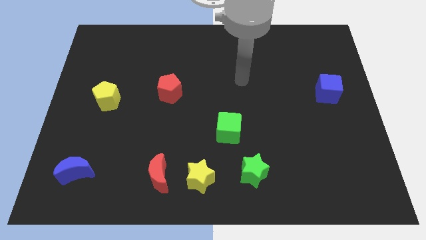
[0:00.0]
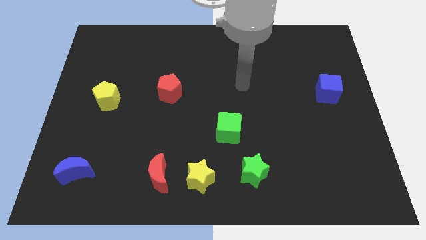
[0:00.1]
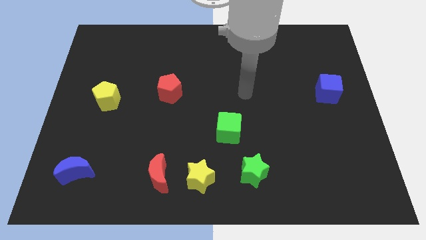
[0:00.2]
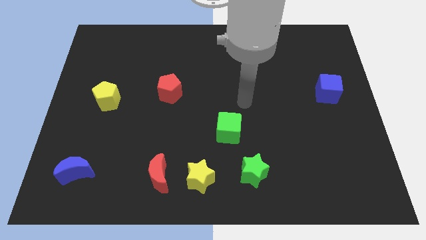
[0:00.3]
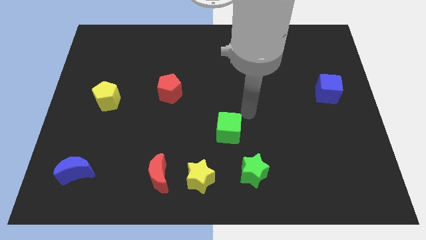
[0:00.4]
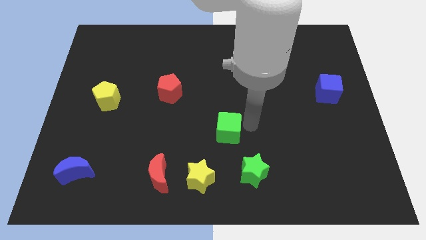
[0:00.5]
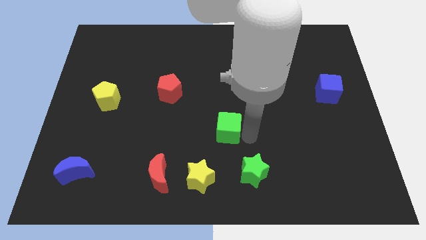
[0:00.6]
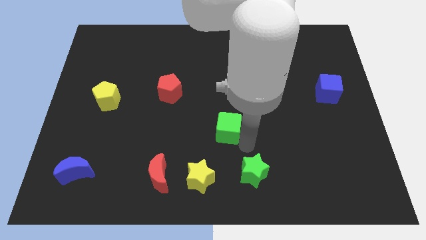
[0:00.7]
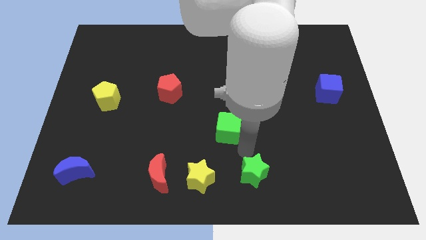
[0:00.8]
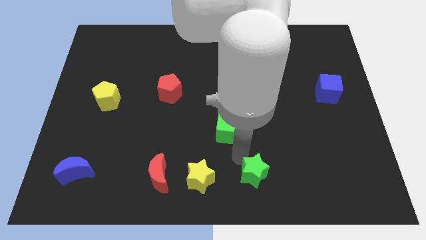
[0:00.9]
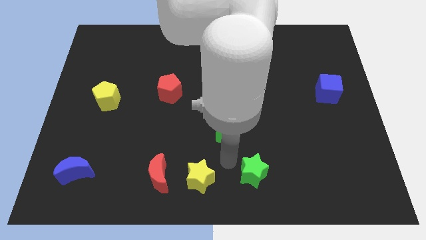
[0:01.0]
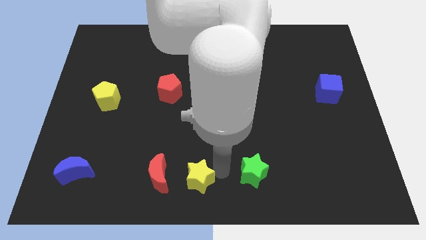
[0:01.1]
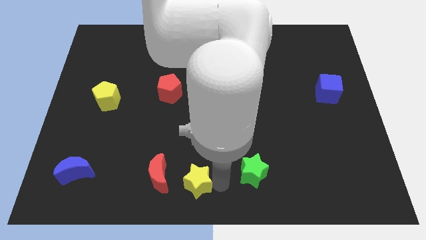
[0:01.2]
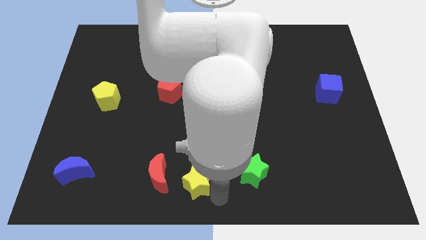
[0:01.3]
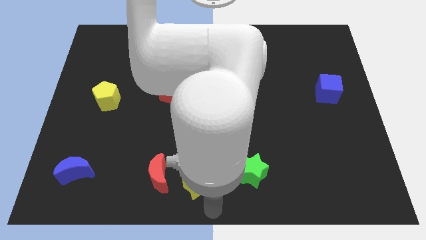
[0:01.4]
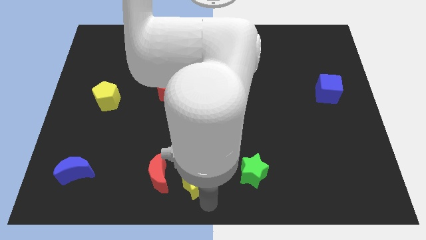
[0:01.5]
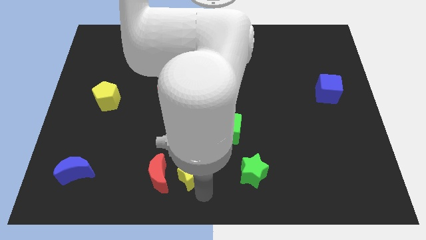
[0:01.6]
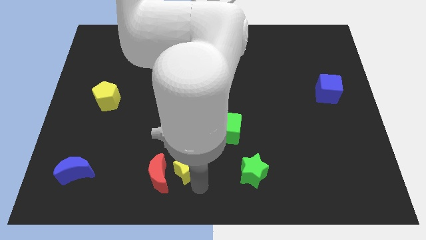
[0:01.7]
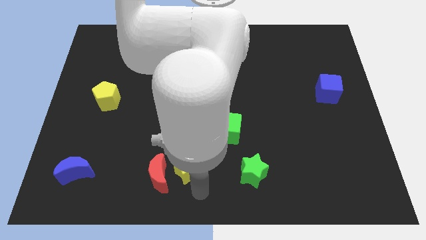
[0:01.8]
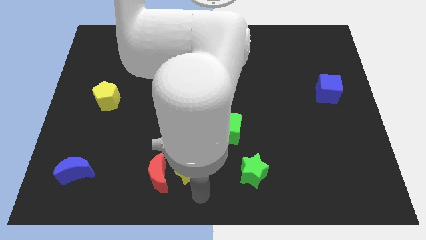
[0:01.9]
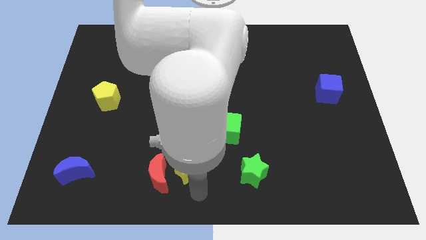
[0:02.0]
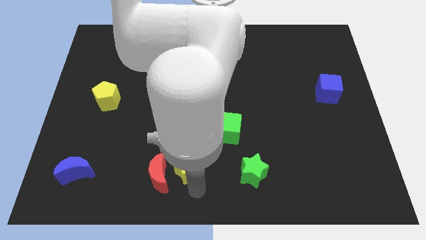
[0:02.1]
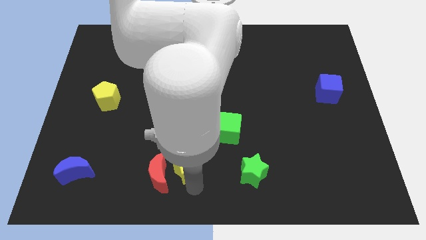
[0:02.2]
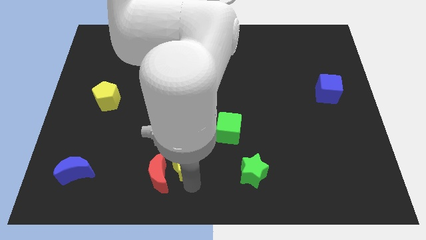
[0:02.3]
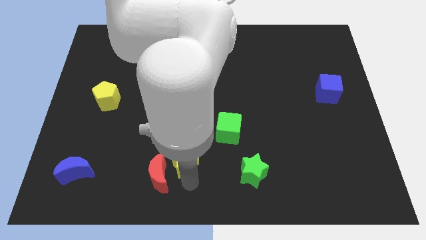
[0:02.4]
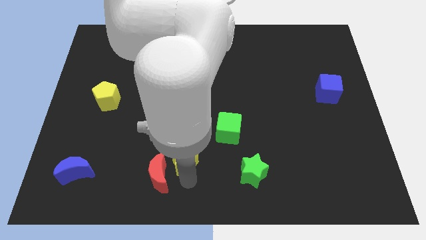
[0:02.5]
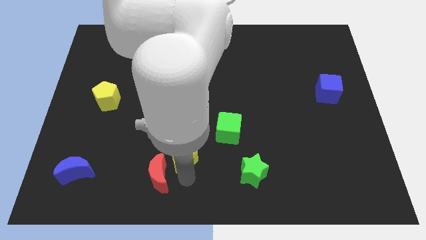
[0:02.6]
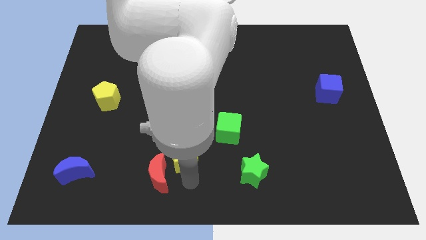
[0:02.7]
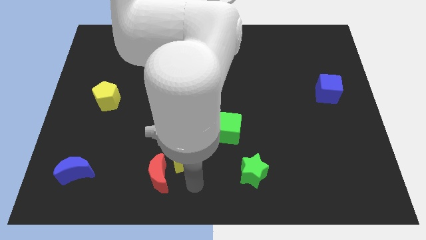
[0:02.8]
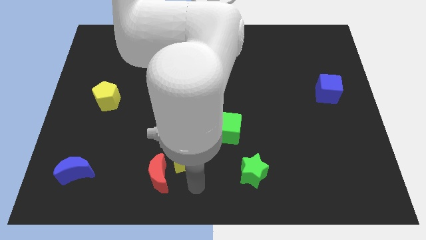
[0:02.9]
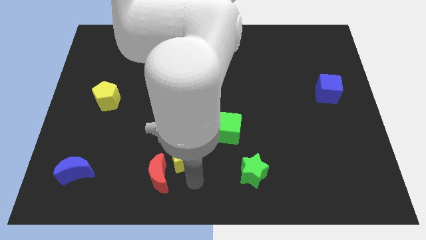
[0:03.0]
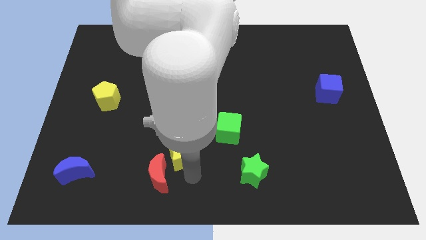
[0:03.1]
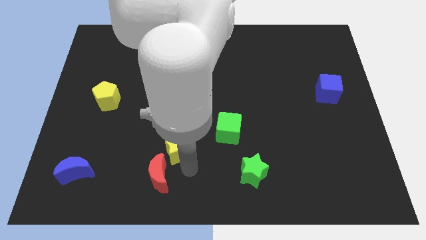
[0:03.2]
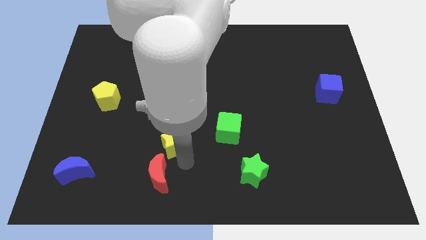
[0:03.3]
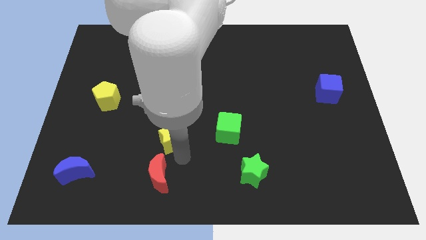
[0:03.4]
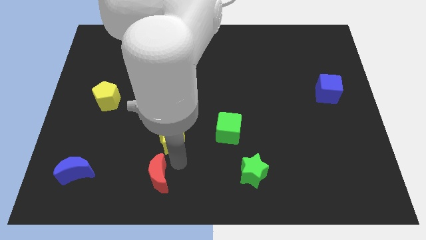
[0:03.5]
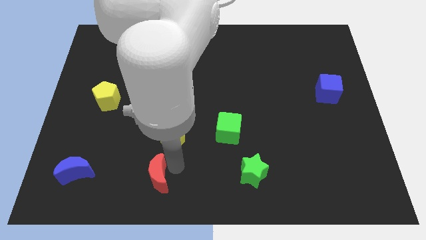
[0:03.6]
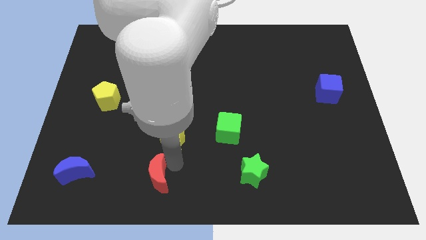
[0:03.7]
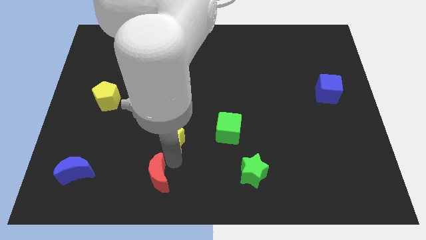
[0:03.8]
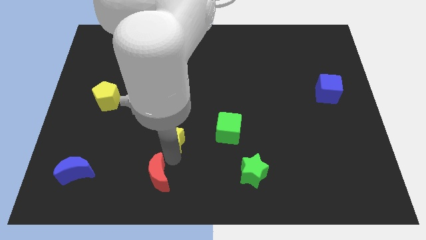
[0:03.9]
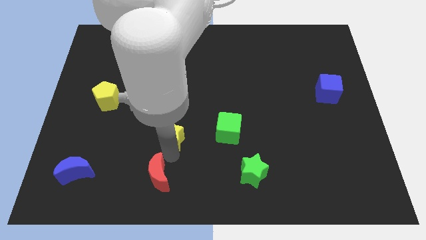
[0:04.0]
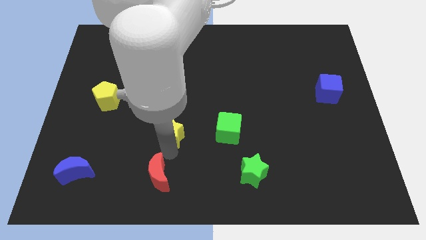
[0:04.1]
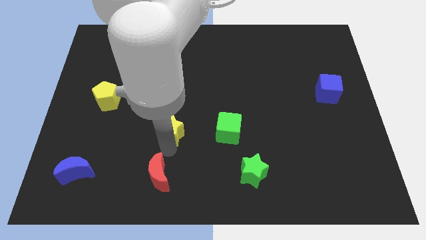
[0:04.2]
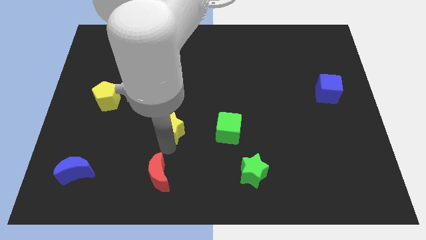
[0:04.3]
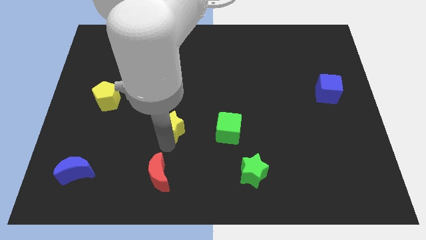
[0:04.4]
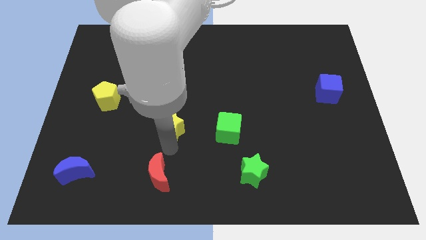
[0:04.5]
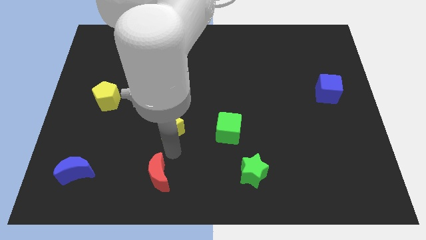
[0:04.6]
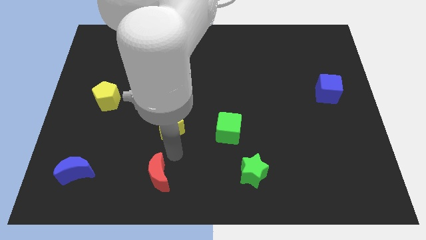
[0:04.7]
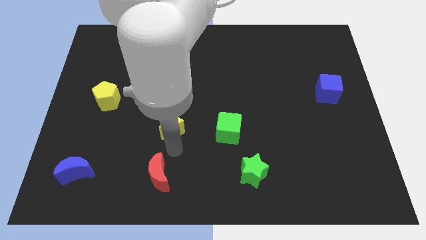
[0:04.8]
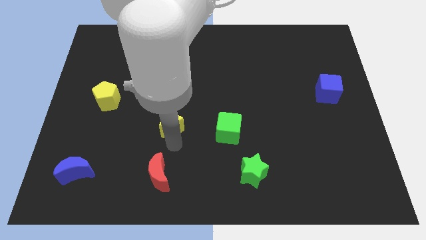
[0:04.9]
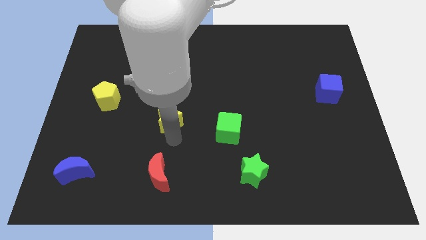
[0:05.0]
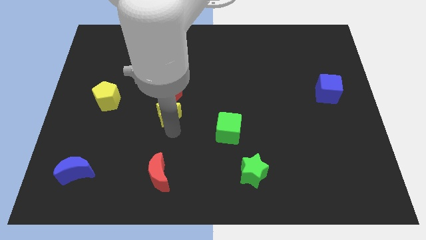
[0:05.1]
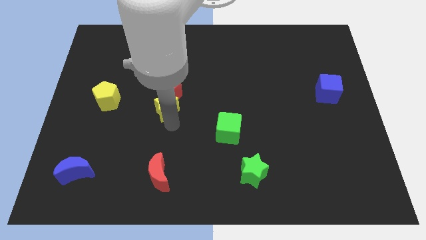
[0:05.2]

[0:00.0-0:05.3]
slide the yellow star next to the red pentagon

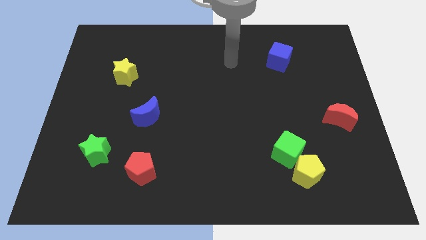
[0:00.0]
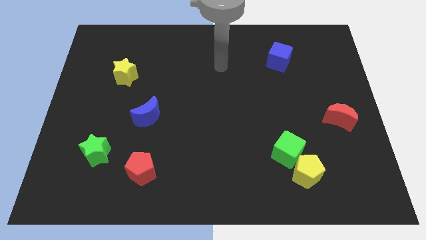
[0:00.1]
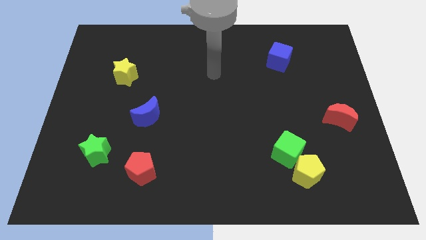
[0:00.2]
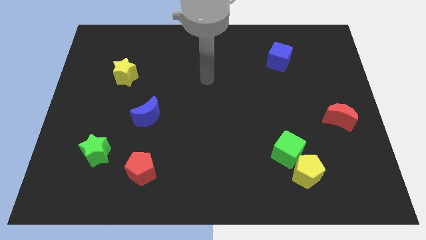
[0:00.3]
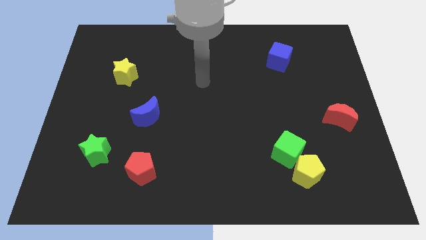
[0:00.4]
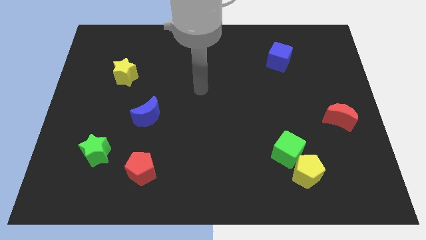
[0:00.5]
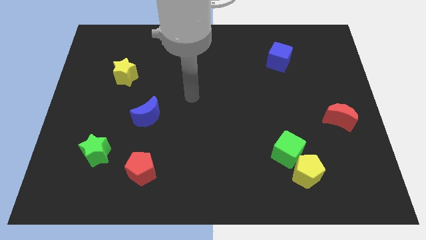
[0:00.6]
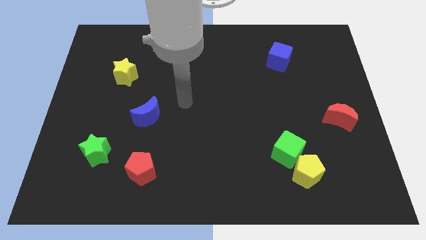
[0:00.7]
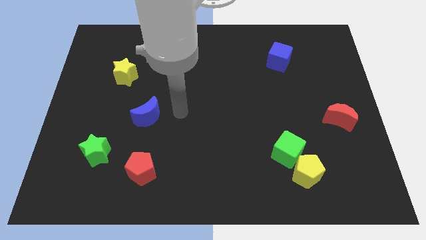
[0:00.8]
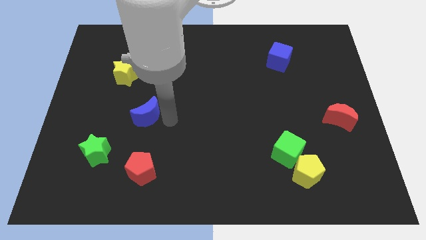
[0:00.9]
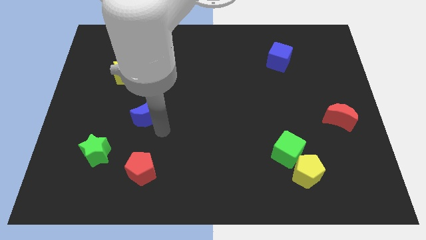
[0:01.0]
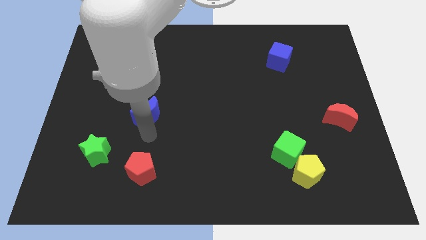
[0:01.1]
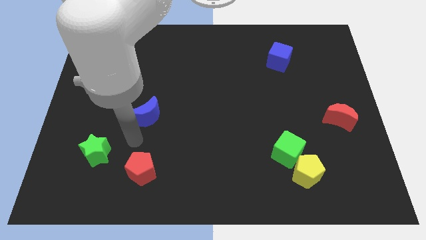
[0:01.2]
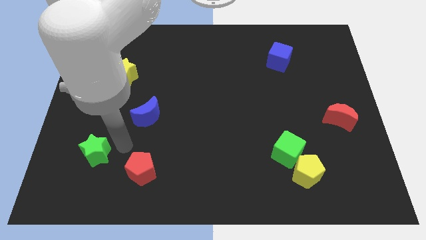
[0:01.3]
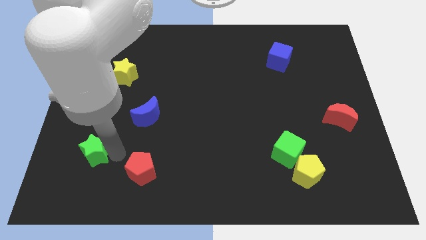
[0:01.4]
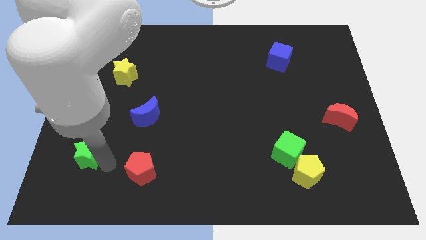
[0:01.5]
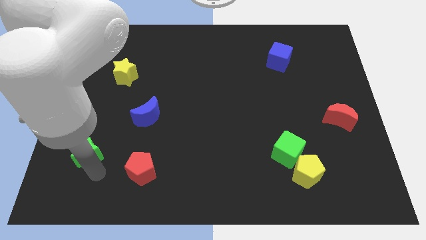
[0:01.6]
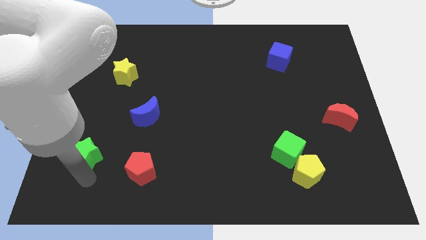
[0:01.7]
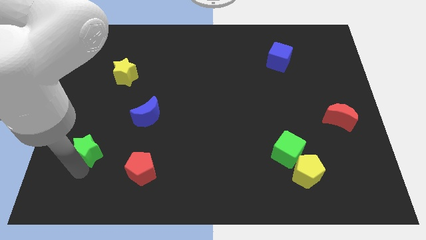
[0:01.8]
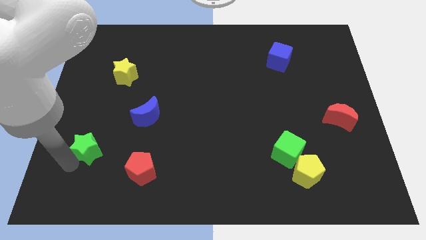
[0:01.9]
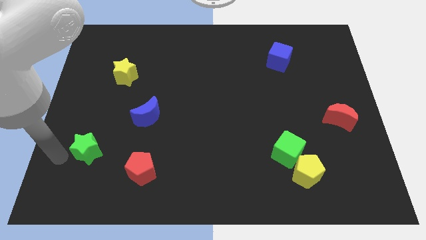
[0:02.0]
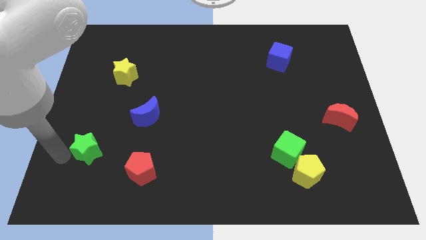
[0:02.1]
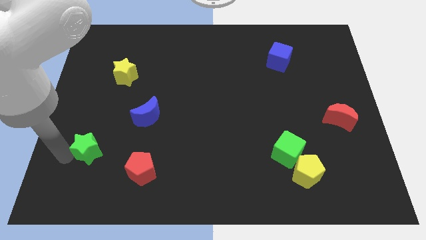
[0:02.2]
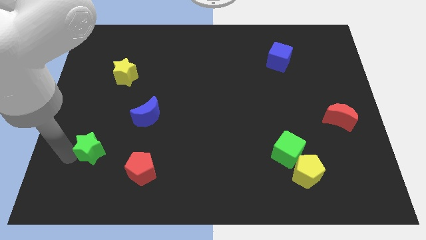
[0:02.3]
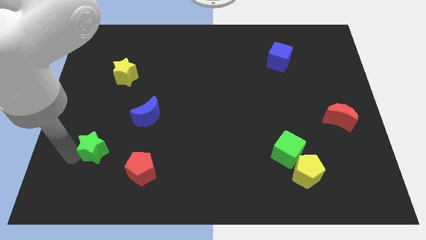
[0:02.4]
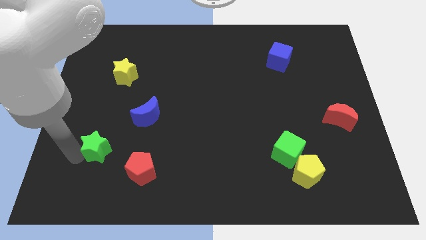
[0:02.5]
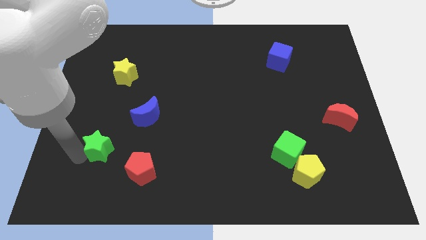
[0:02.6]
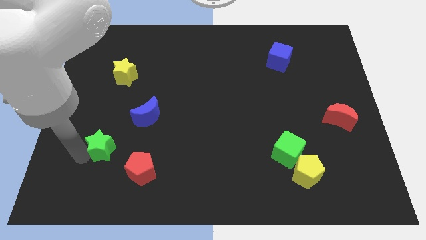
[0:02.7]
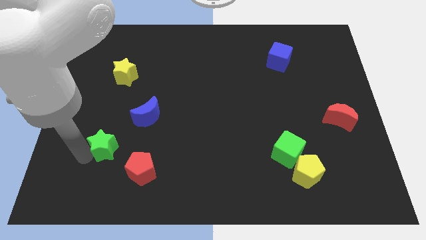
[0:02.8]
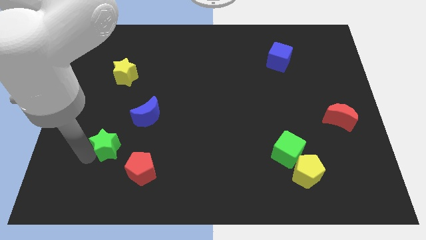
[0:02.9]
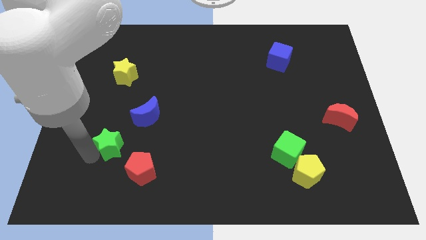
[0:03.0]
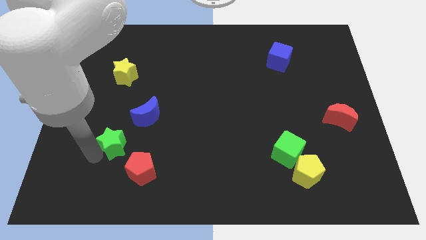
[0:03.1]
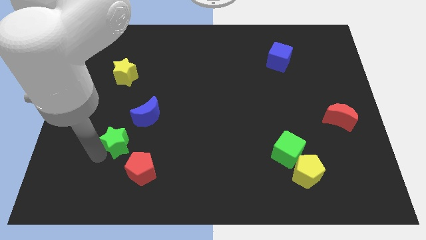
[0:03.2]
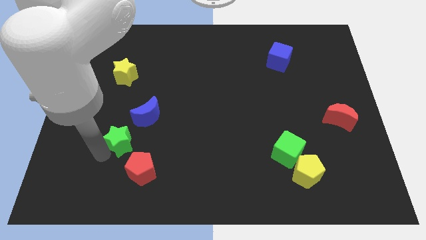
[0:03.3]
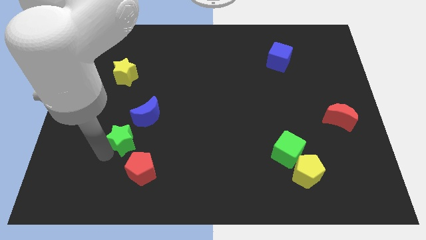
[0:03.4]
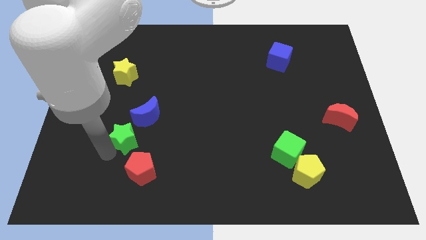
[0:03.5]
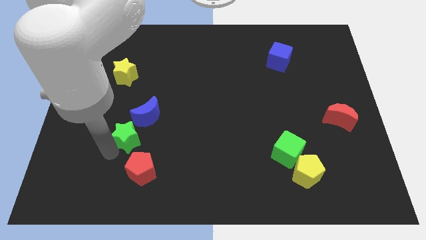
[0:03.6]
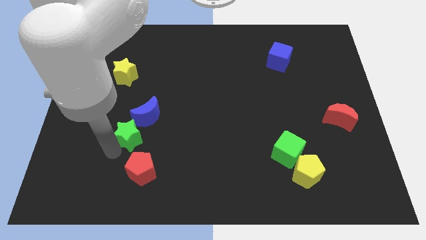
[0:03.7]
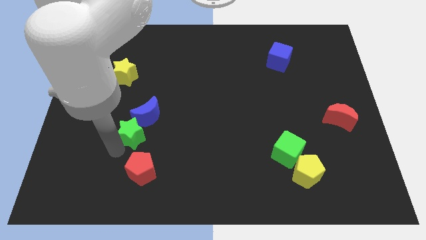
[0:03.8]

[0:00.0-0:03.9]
put the green star close to the blue moon
